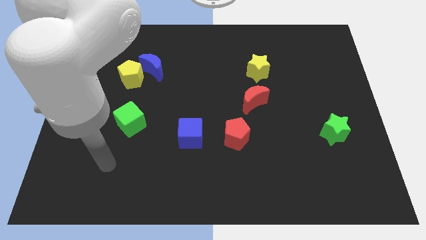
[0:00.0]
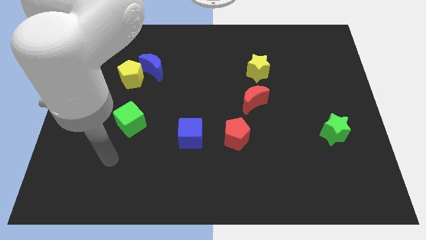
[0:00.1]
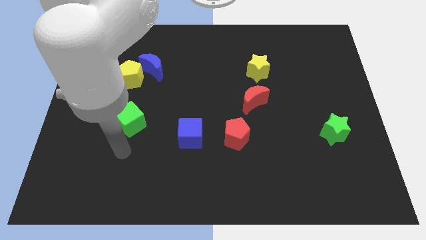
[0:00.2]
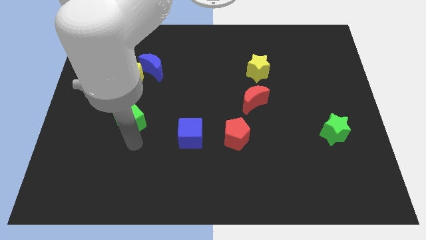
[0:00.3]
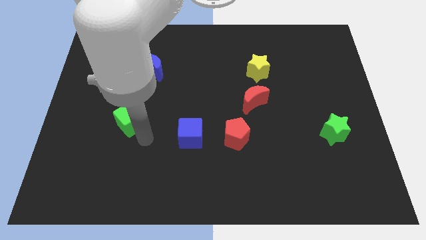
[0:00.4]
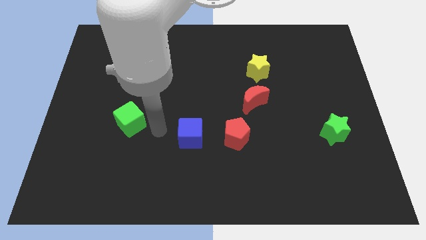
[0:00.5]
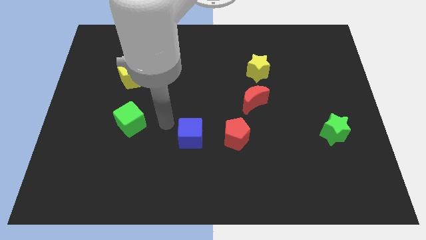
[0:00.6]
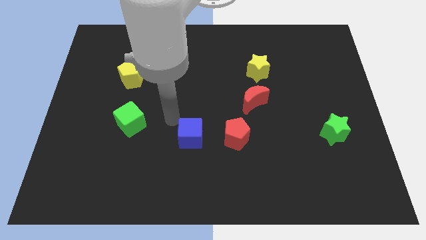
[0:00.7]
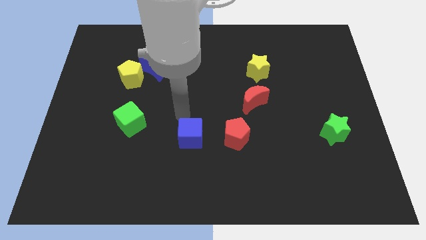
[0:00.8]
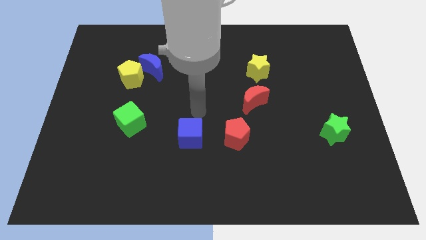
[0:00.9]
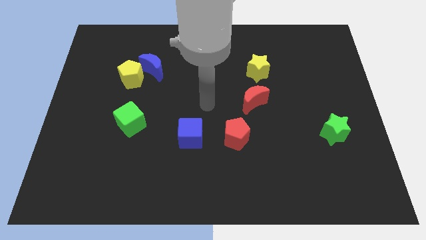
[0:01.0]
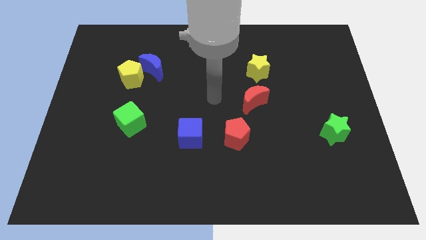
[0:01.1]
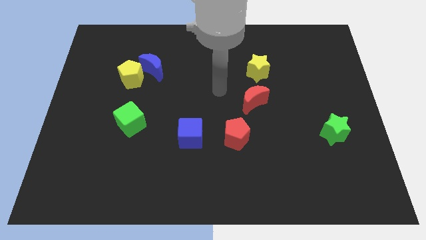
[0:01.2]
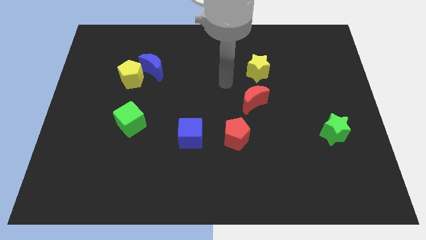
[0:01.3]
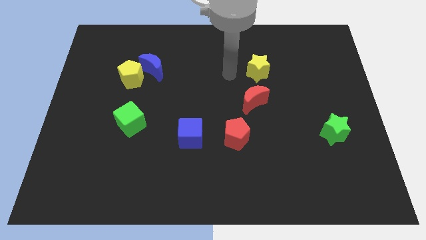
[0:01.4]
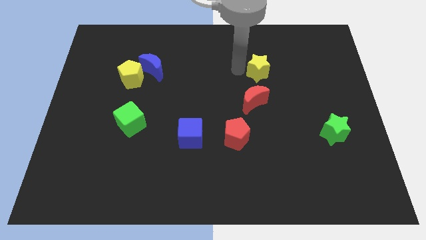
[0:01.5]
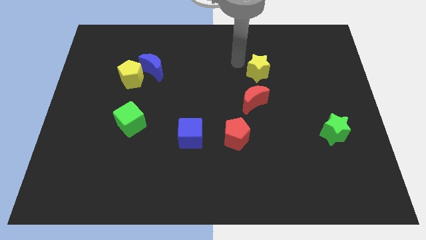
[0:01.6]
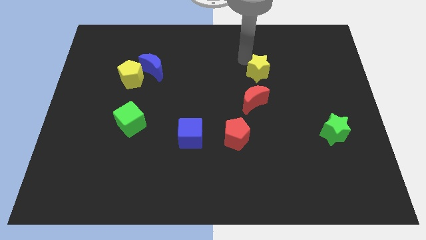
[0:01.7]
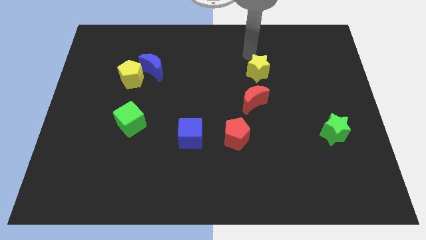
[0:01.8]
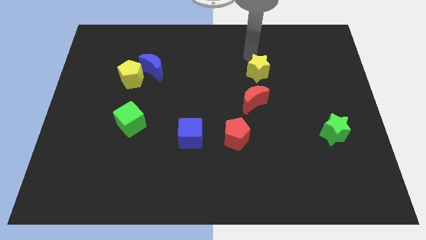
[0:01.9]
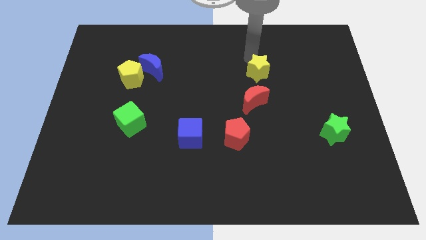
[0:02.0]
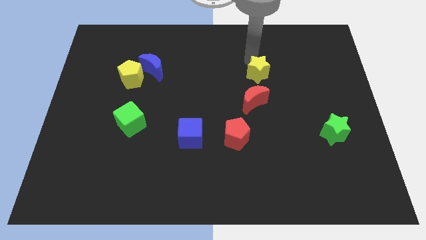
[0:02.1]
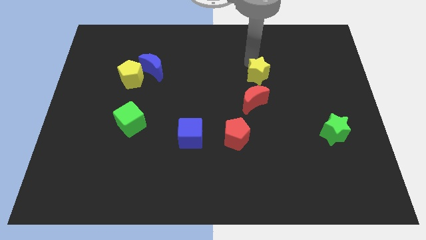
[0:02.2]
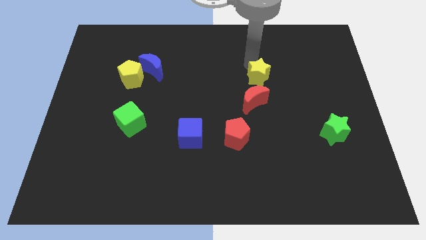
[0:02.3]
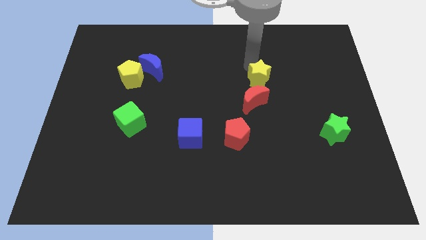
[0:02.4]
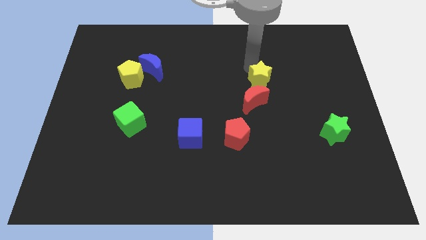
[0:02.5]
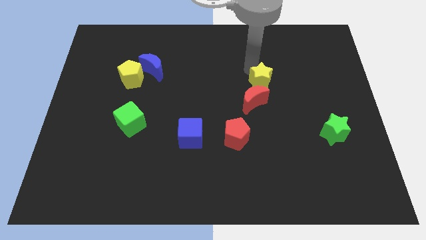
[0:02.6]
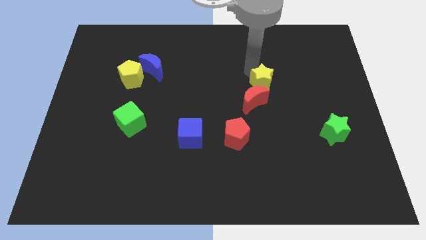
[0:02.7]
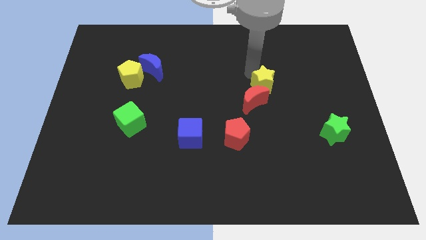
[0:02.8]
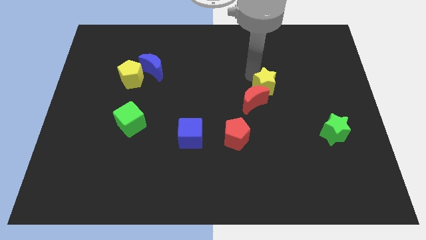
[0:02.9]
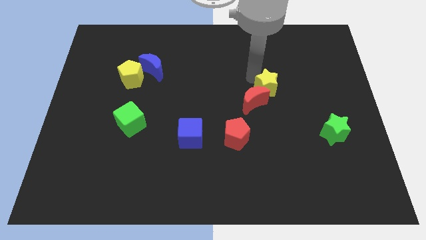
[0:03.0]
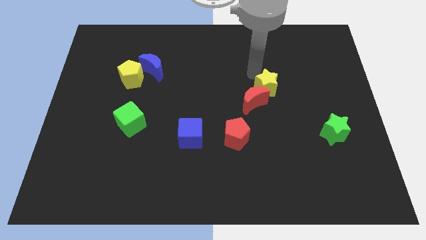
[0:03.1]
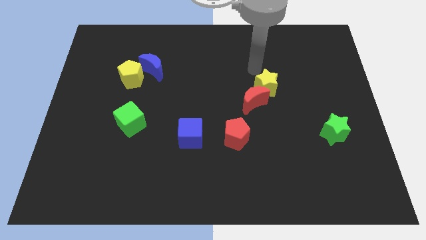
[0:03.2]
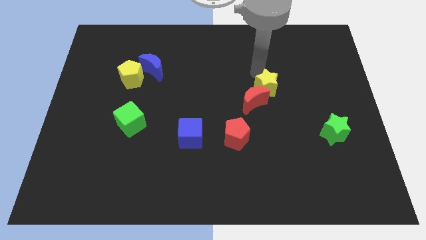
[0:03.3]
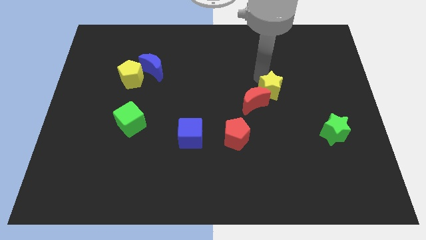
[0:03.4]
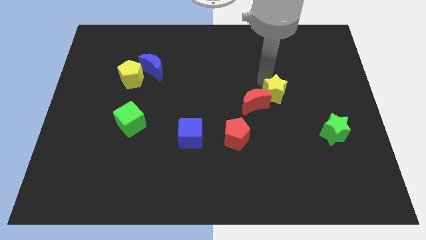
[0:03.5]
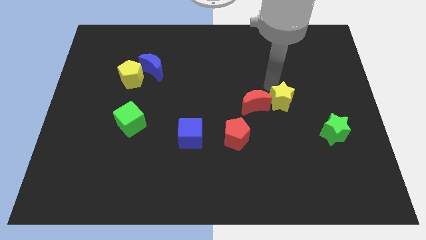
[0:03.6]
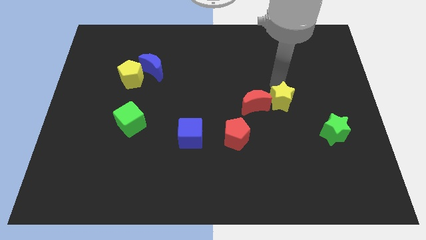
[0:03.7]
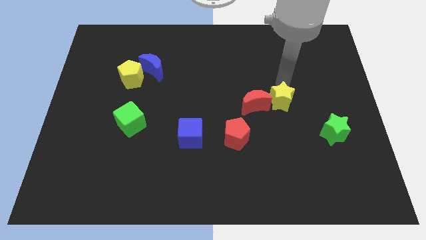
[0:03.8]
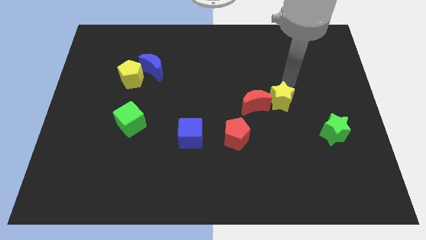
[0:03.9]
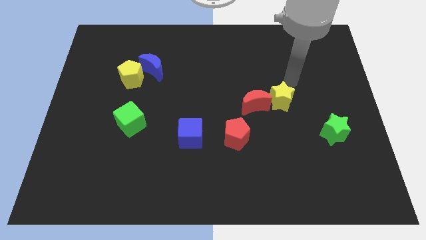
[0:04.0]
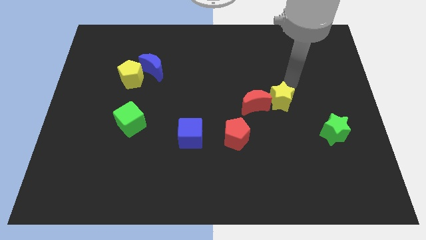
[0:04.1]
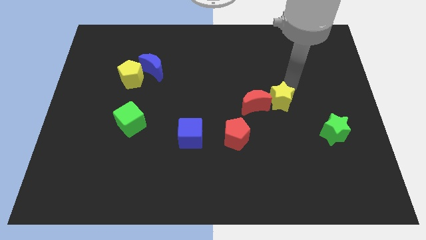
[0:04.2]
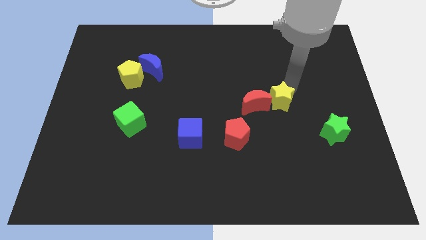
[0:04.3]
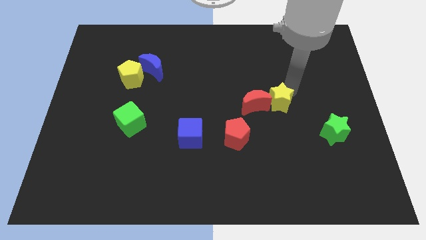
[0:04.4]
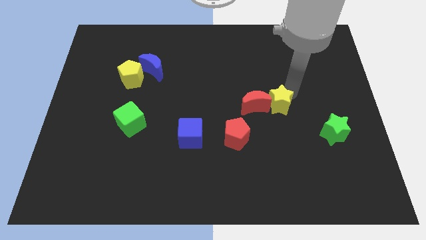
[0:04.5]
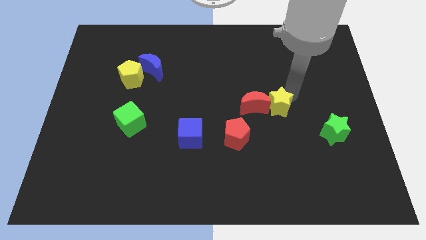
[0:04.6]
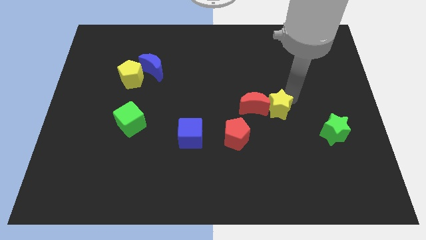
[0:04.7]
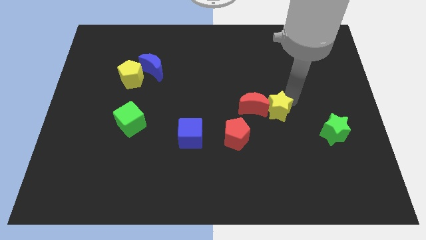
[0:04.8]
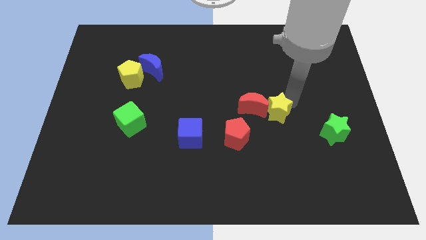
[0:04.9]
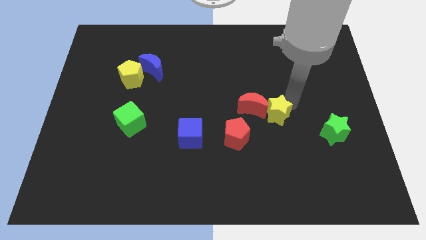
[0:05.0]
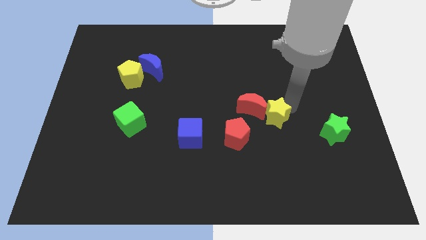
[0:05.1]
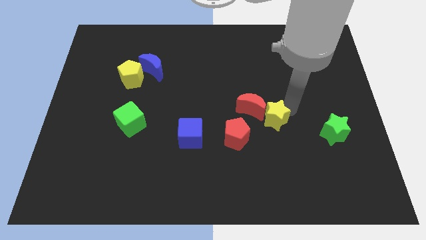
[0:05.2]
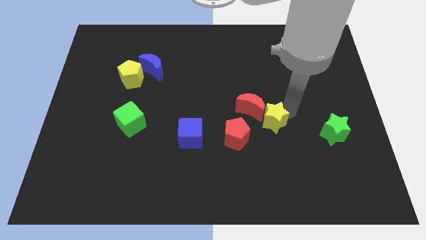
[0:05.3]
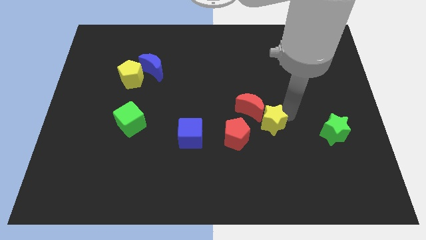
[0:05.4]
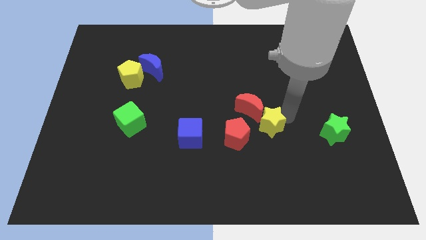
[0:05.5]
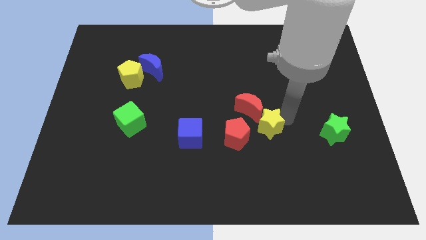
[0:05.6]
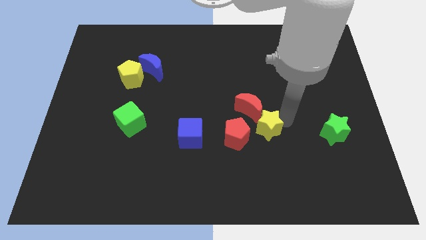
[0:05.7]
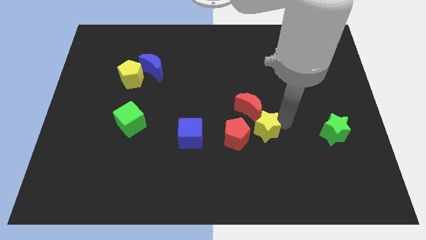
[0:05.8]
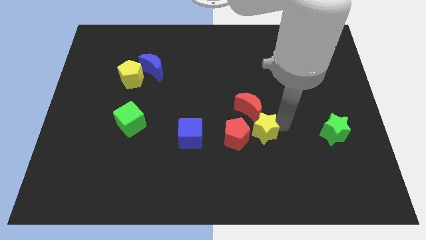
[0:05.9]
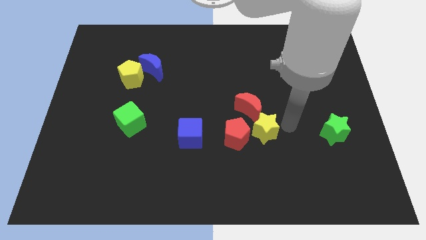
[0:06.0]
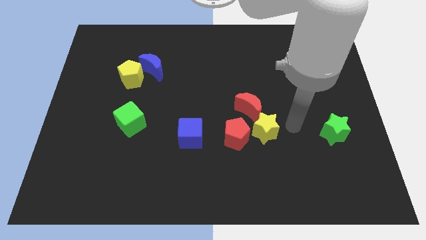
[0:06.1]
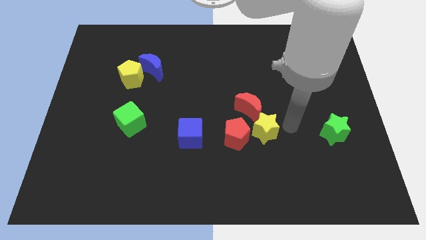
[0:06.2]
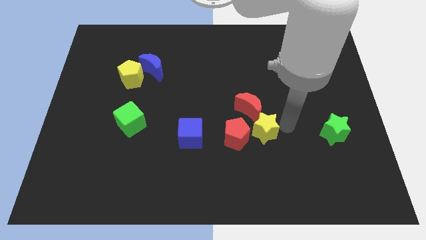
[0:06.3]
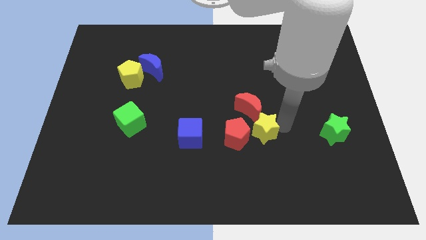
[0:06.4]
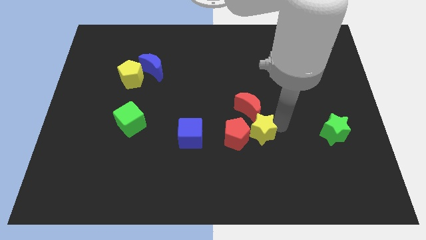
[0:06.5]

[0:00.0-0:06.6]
push the yellow star right of the blue cube
